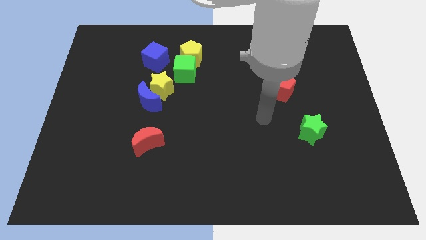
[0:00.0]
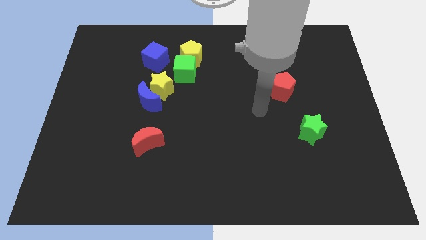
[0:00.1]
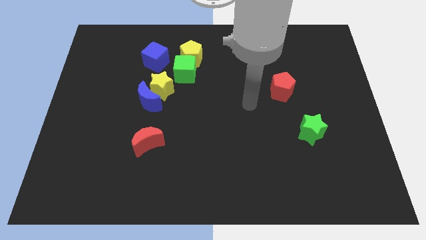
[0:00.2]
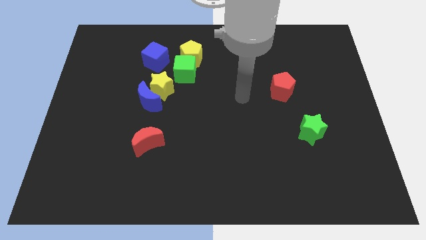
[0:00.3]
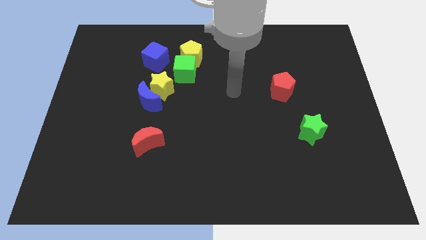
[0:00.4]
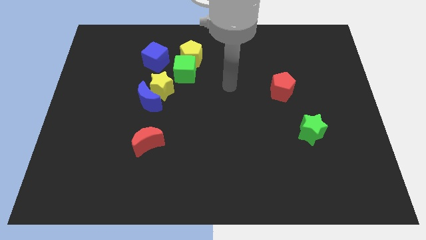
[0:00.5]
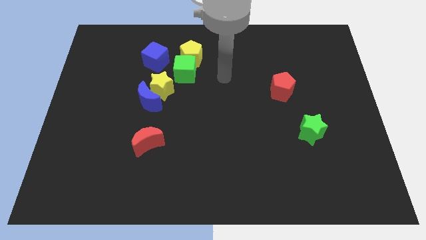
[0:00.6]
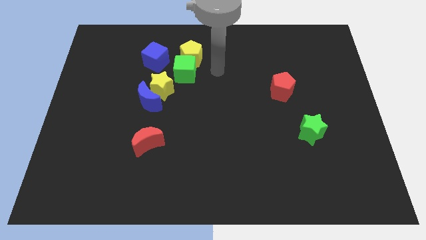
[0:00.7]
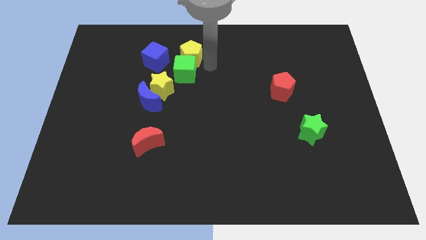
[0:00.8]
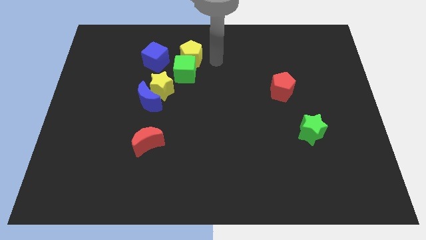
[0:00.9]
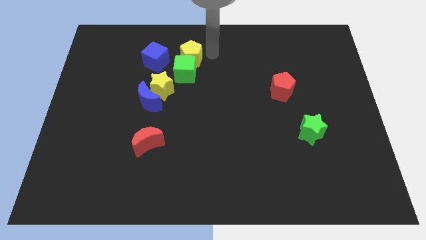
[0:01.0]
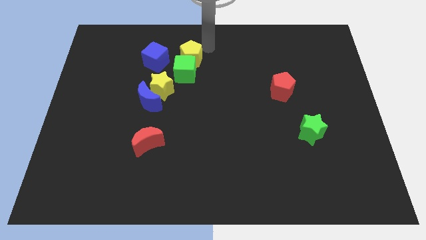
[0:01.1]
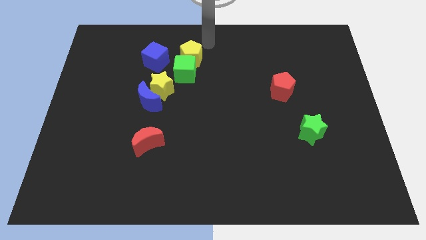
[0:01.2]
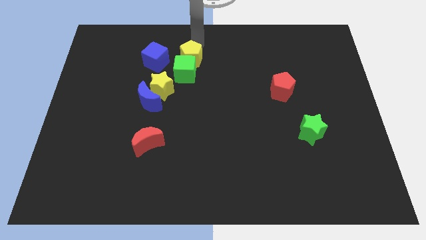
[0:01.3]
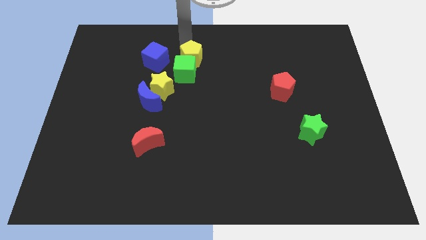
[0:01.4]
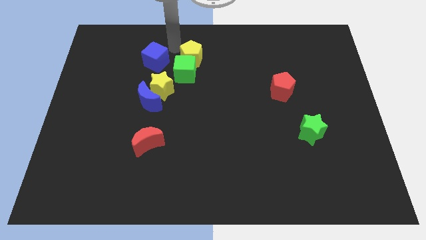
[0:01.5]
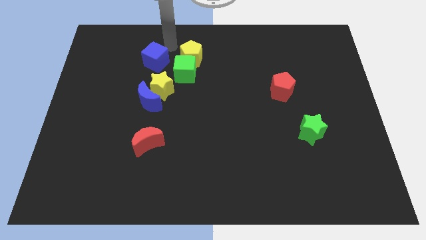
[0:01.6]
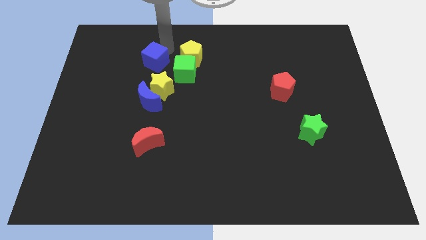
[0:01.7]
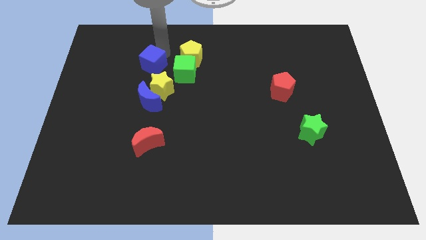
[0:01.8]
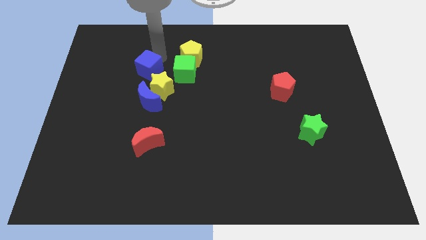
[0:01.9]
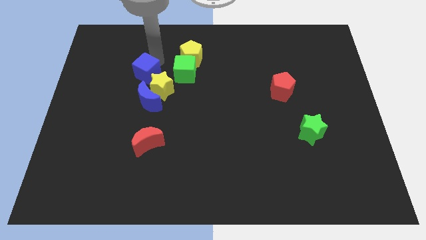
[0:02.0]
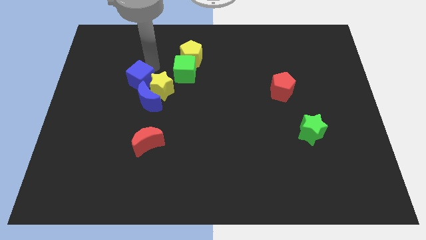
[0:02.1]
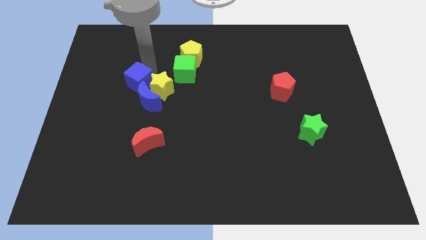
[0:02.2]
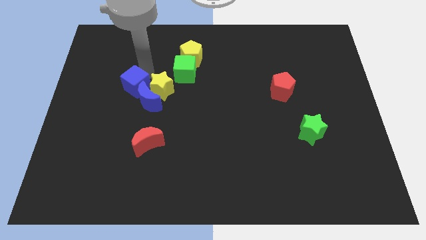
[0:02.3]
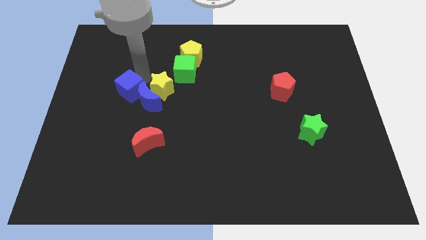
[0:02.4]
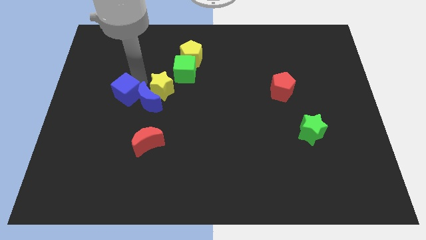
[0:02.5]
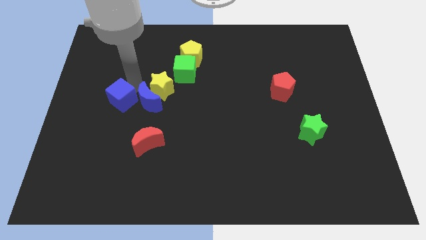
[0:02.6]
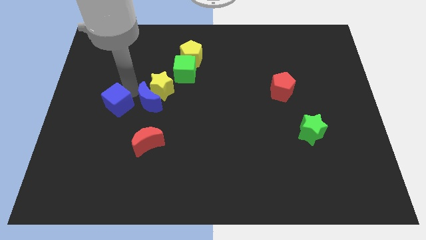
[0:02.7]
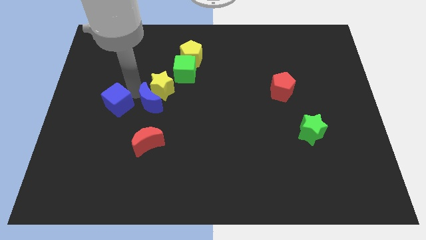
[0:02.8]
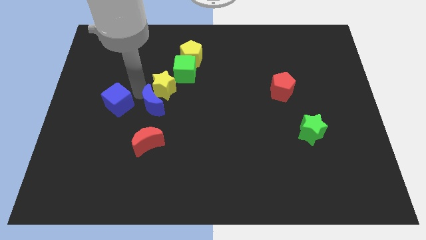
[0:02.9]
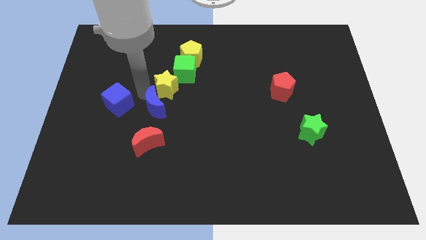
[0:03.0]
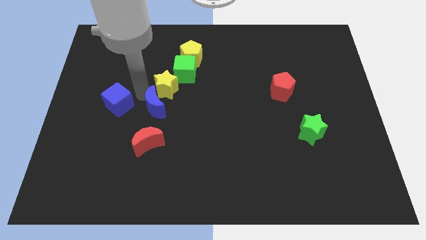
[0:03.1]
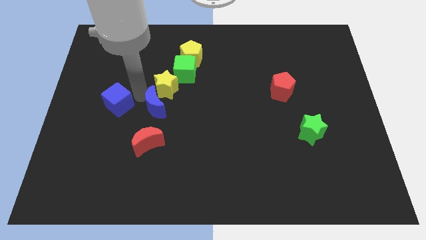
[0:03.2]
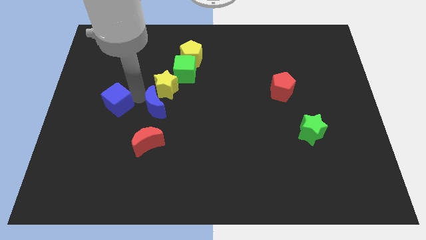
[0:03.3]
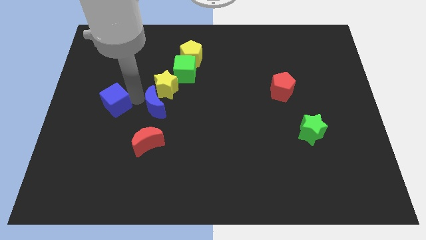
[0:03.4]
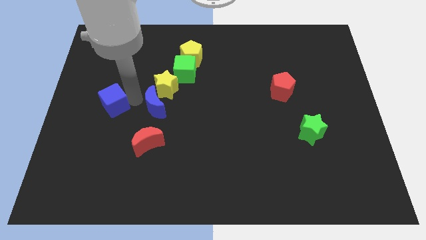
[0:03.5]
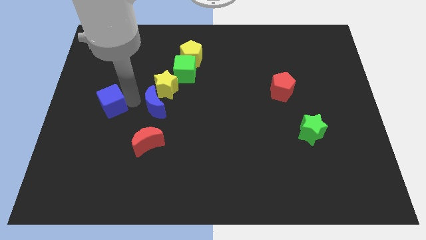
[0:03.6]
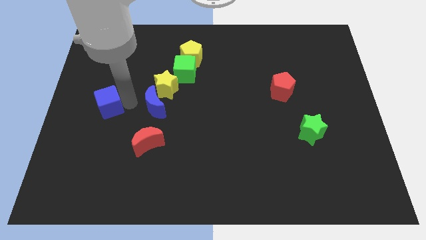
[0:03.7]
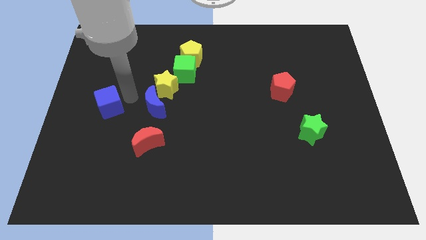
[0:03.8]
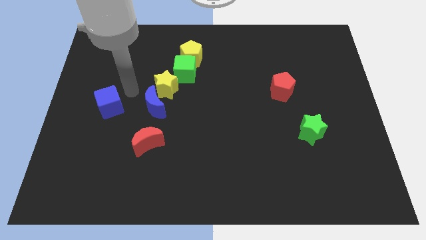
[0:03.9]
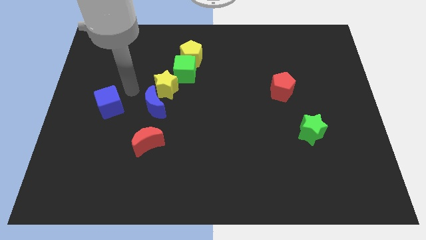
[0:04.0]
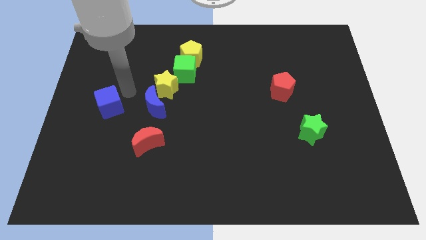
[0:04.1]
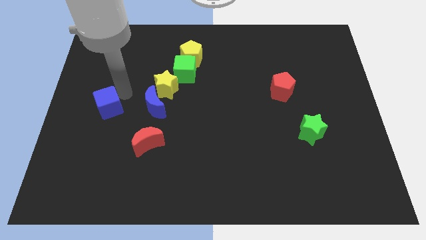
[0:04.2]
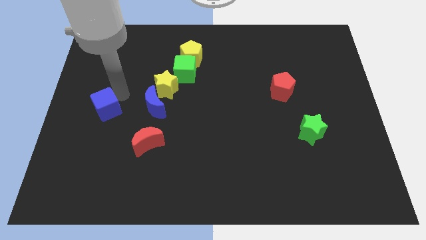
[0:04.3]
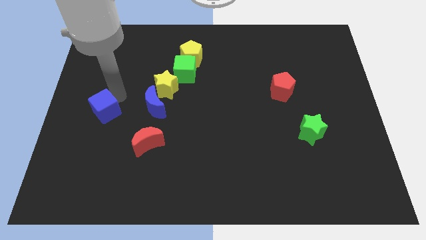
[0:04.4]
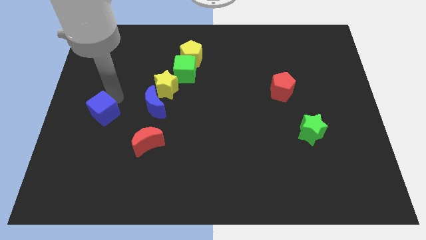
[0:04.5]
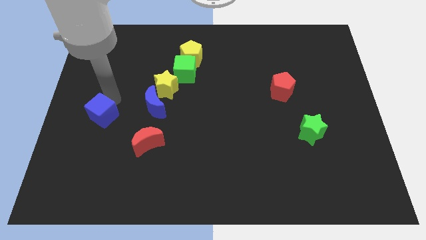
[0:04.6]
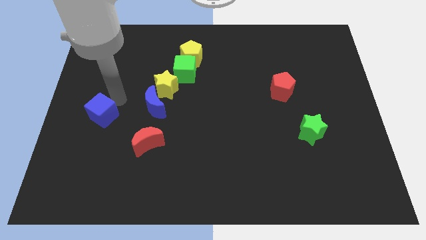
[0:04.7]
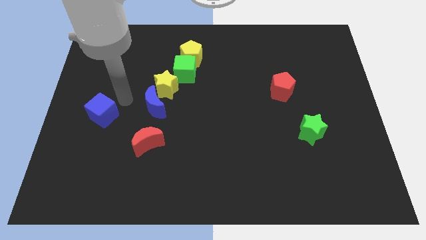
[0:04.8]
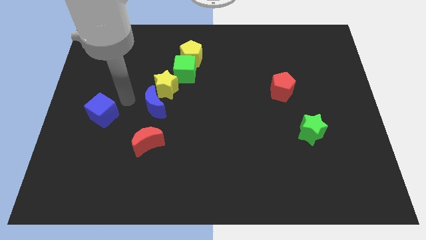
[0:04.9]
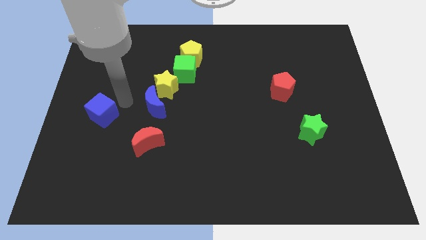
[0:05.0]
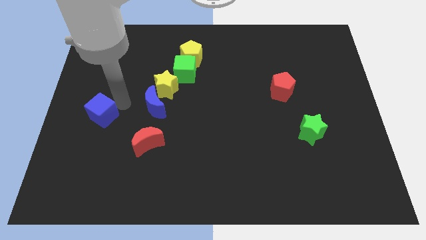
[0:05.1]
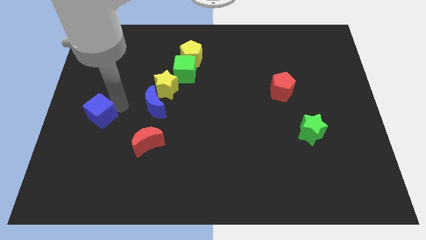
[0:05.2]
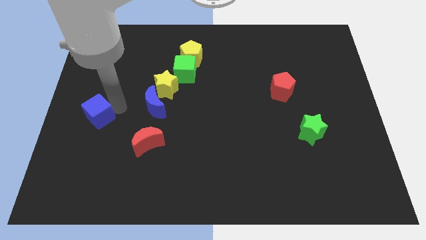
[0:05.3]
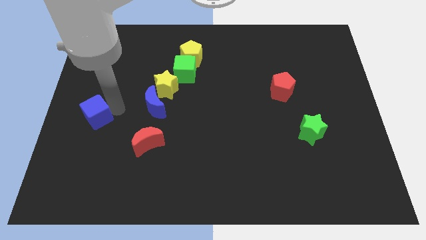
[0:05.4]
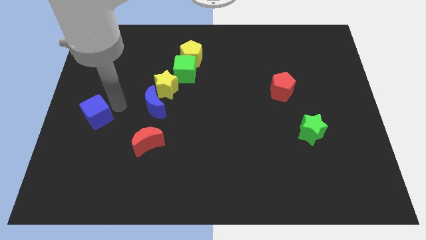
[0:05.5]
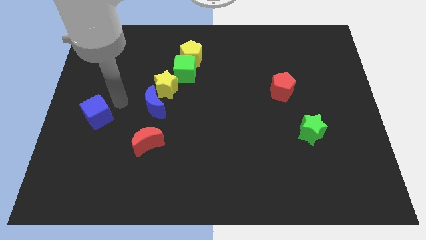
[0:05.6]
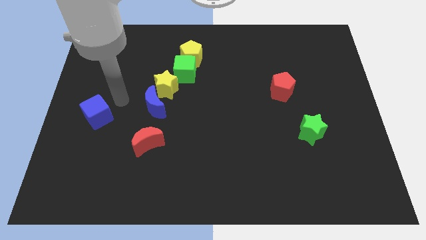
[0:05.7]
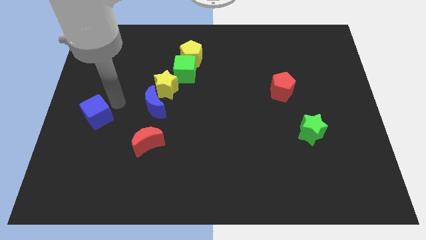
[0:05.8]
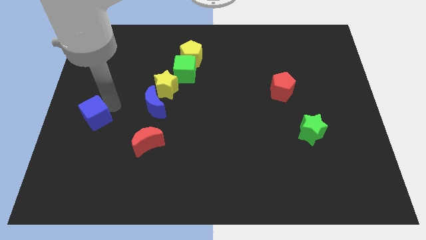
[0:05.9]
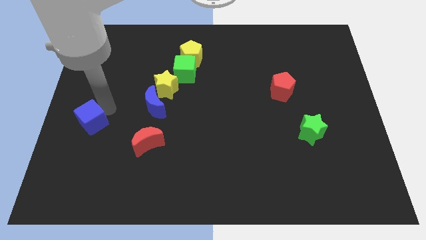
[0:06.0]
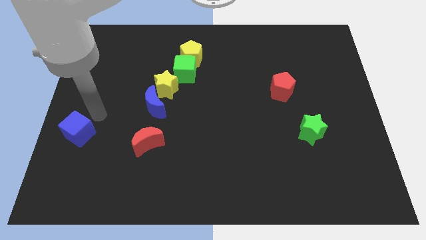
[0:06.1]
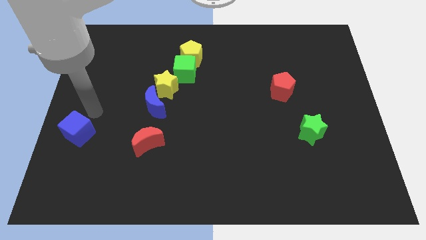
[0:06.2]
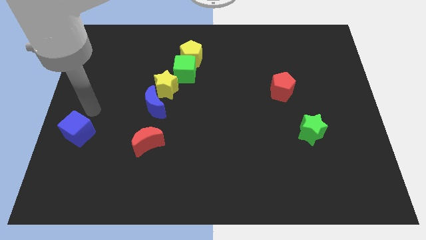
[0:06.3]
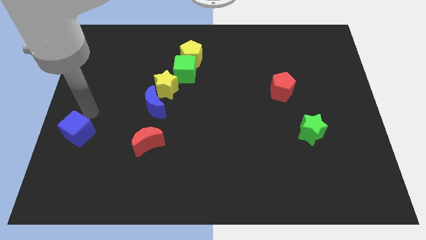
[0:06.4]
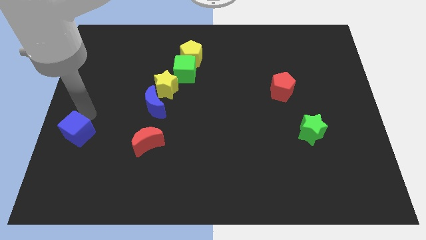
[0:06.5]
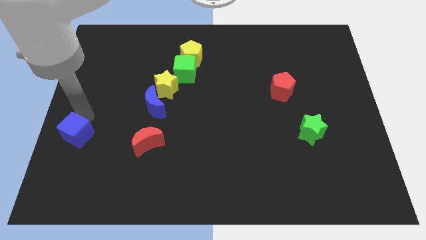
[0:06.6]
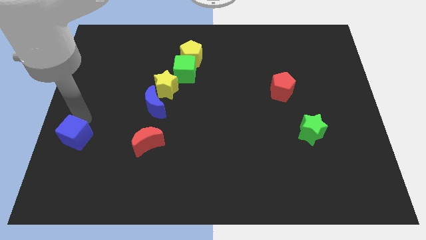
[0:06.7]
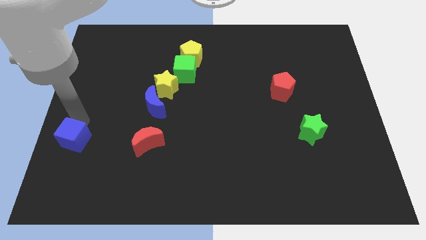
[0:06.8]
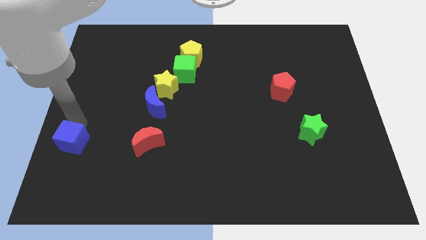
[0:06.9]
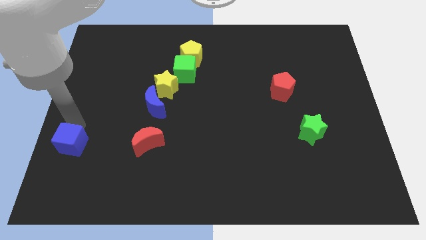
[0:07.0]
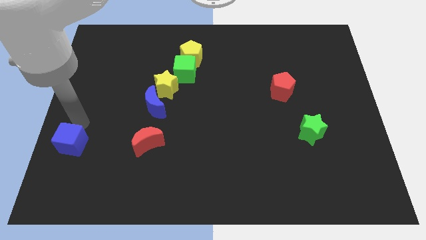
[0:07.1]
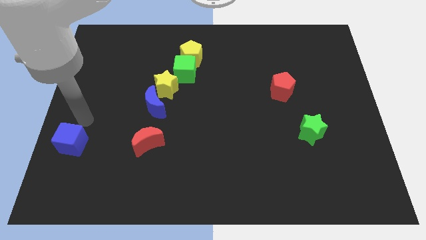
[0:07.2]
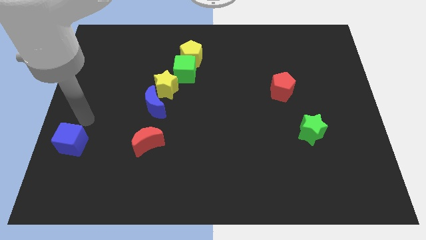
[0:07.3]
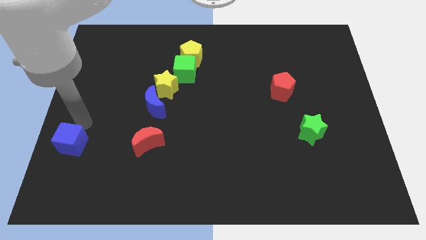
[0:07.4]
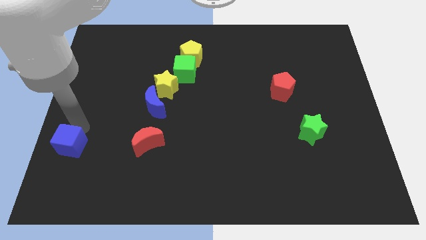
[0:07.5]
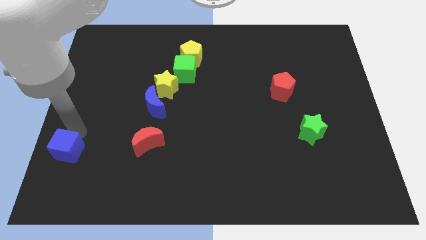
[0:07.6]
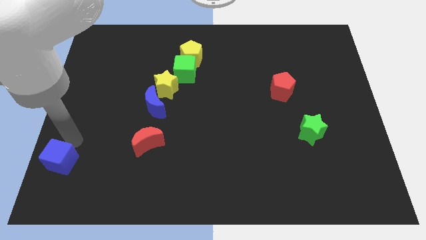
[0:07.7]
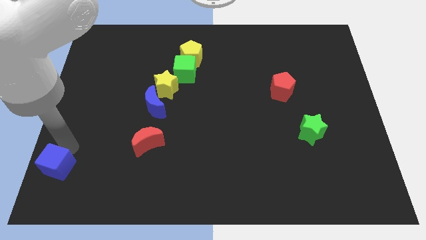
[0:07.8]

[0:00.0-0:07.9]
push the blue cube to the lower left corner
